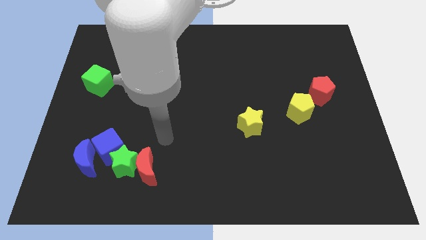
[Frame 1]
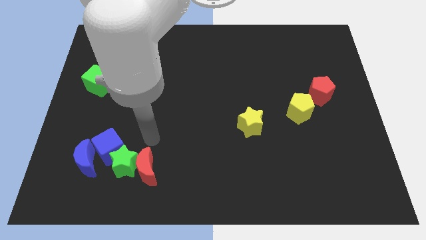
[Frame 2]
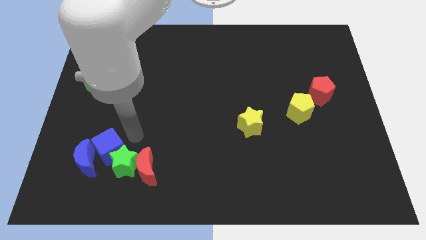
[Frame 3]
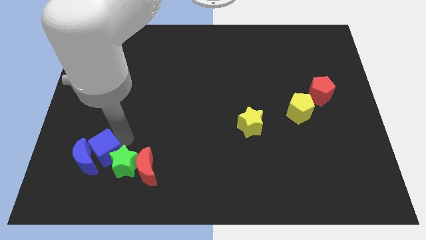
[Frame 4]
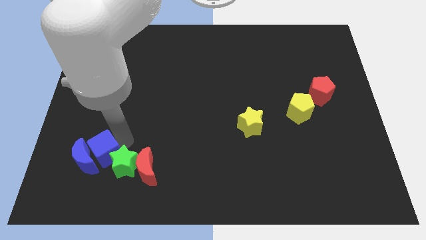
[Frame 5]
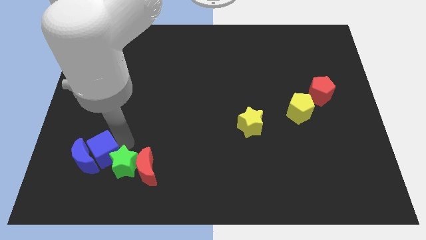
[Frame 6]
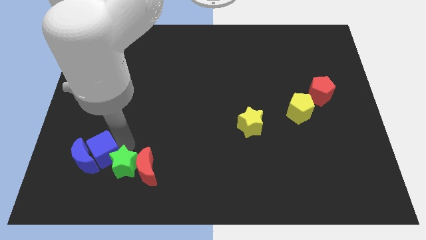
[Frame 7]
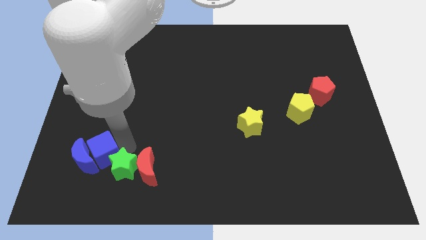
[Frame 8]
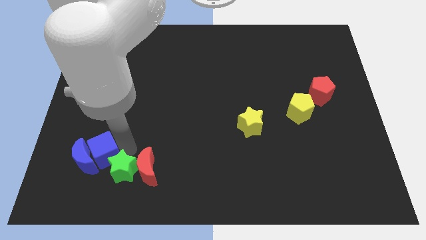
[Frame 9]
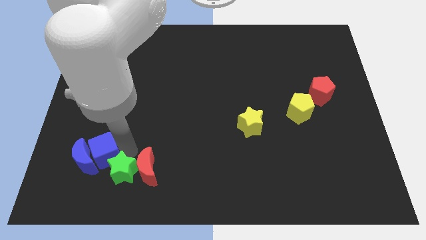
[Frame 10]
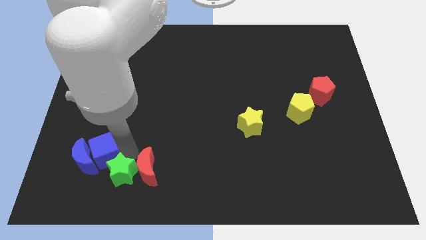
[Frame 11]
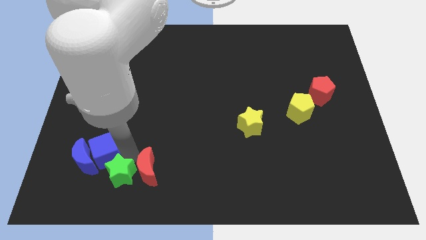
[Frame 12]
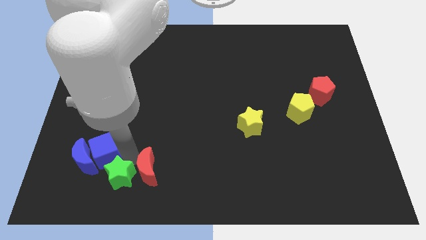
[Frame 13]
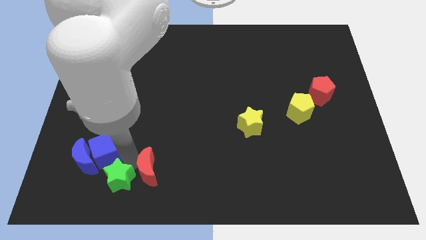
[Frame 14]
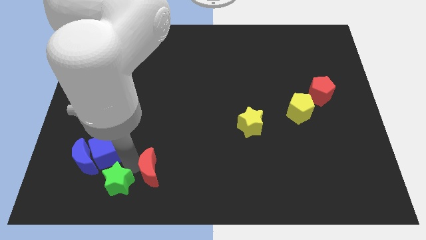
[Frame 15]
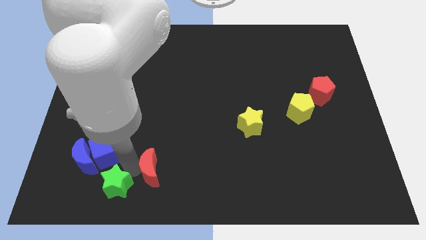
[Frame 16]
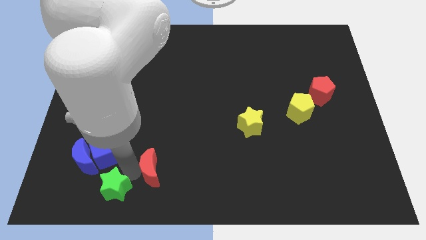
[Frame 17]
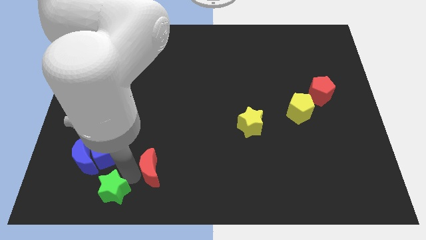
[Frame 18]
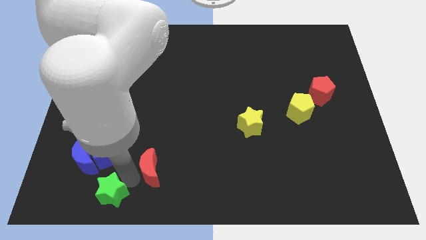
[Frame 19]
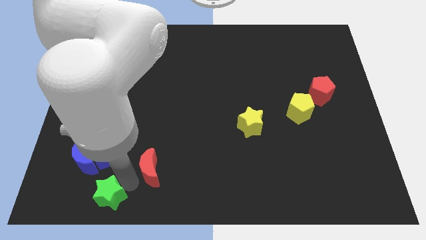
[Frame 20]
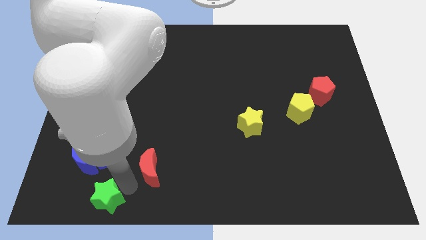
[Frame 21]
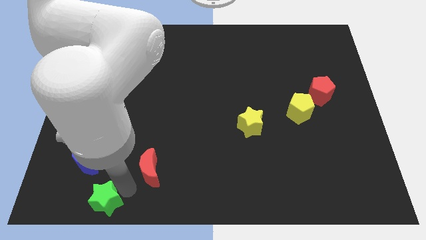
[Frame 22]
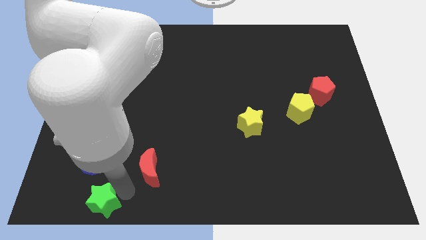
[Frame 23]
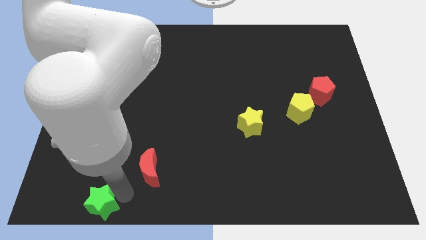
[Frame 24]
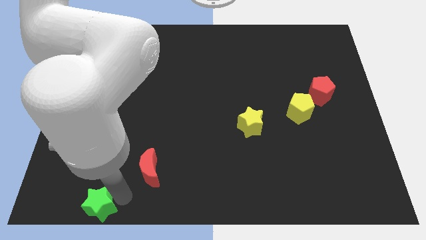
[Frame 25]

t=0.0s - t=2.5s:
separate the green star from the group

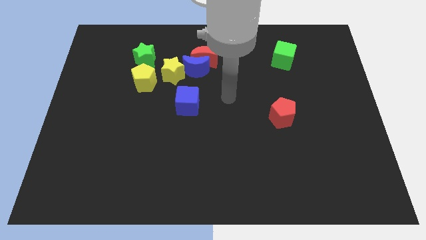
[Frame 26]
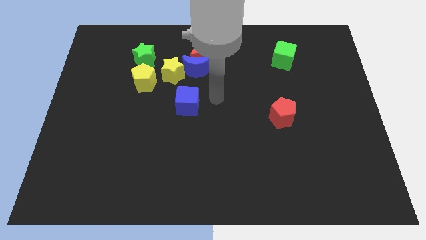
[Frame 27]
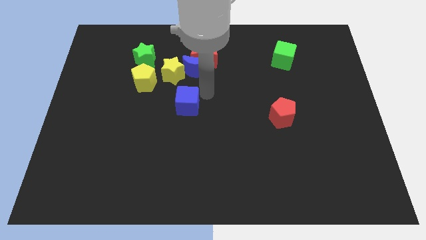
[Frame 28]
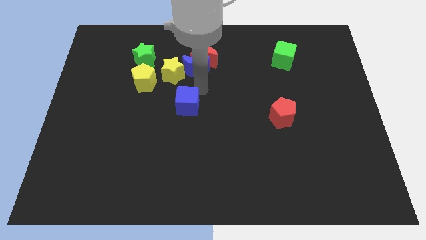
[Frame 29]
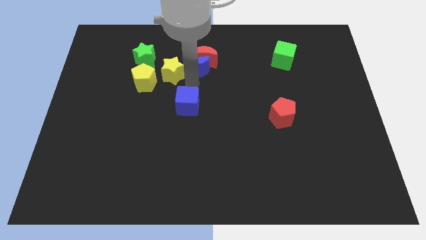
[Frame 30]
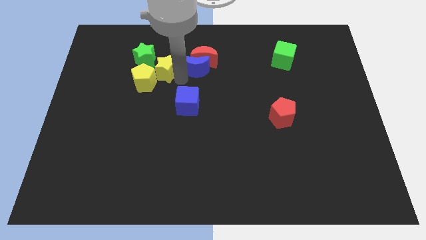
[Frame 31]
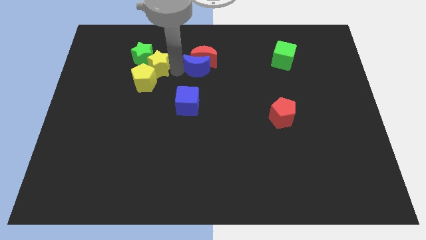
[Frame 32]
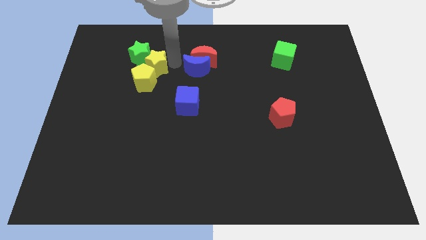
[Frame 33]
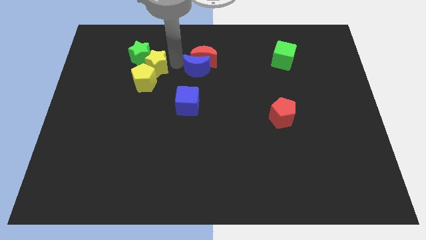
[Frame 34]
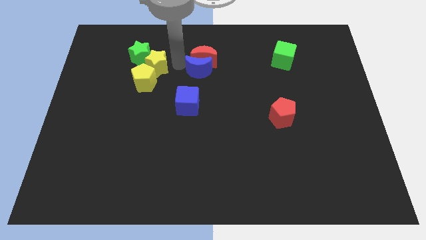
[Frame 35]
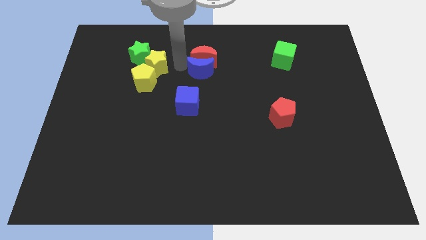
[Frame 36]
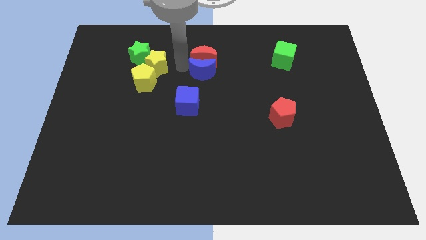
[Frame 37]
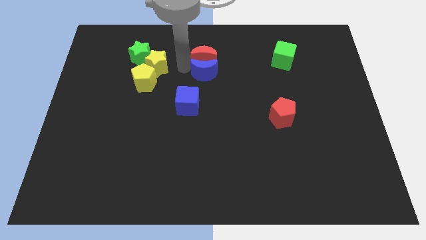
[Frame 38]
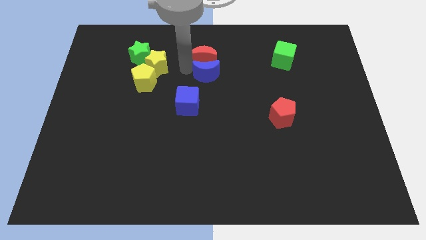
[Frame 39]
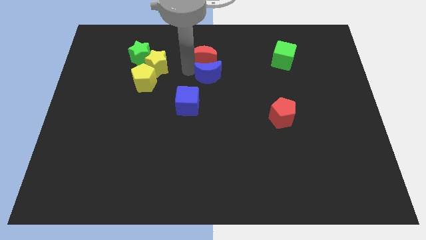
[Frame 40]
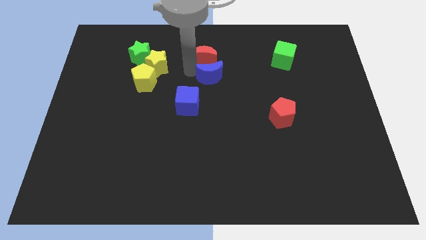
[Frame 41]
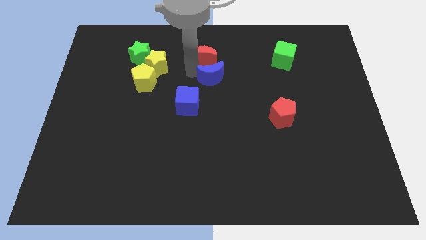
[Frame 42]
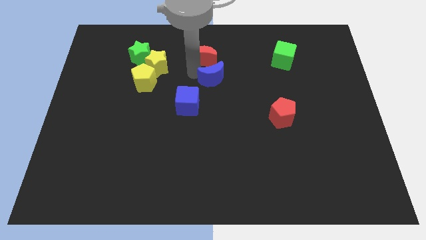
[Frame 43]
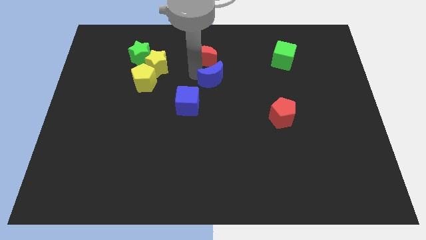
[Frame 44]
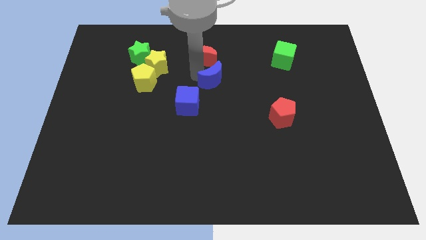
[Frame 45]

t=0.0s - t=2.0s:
move the blue moon away from the red moon and yellow star

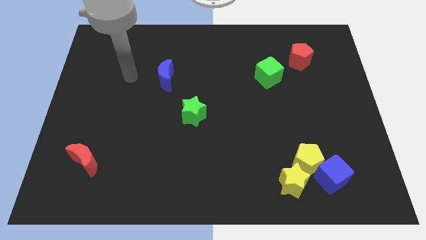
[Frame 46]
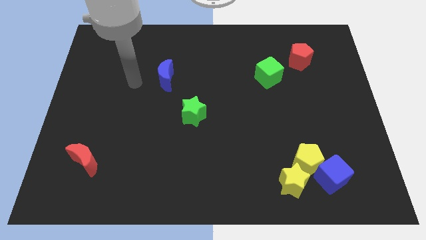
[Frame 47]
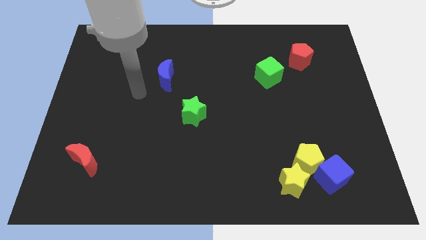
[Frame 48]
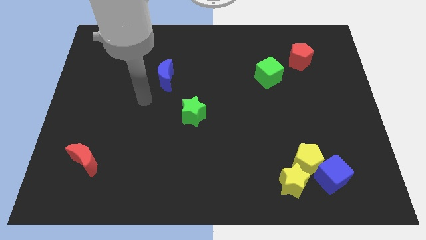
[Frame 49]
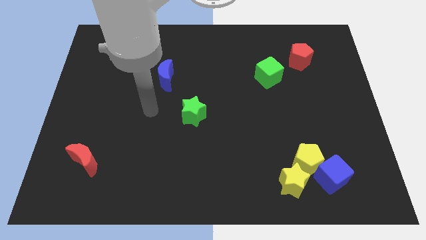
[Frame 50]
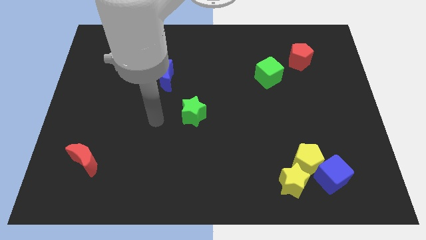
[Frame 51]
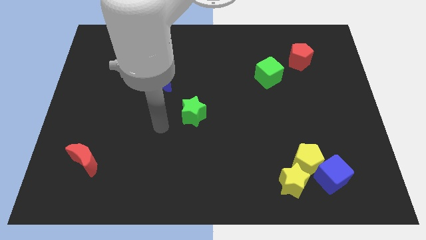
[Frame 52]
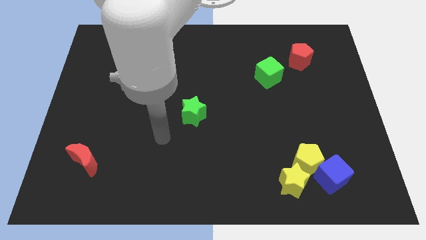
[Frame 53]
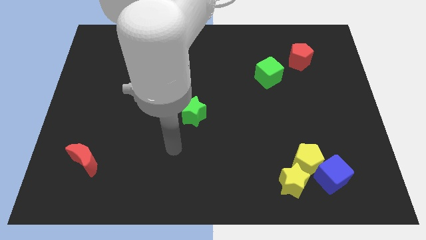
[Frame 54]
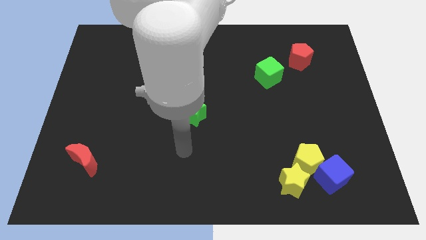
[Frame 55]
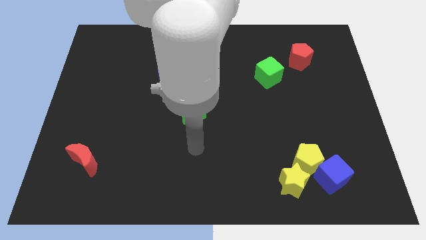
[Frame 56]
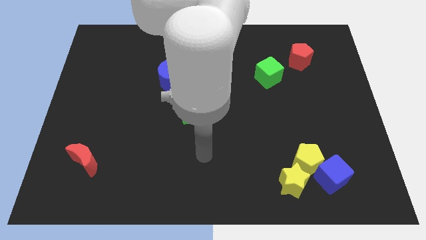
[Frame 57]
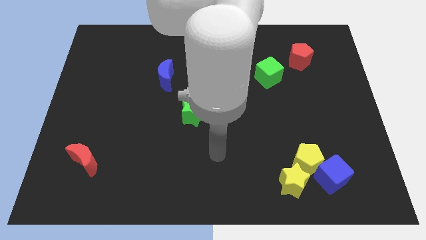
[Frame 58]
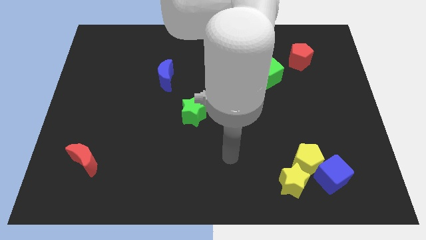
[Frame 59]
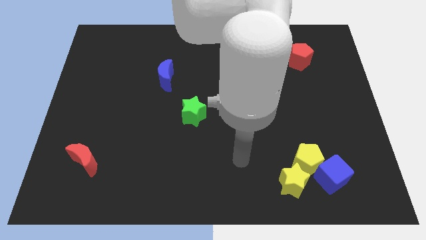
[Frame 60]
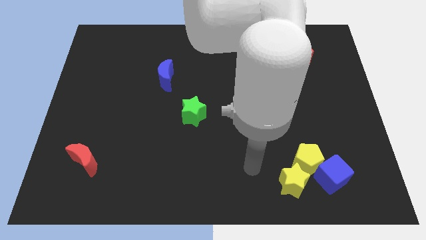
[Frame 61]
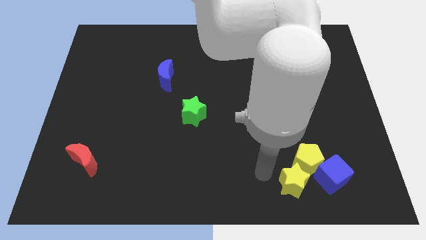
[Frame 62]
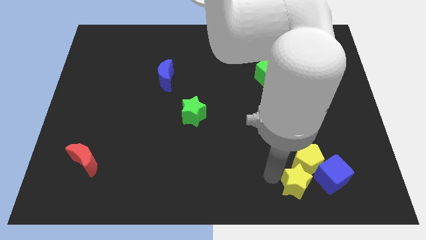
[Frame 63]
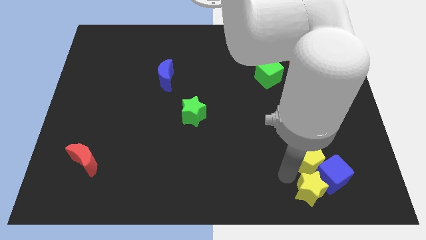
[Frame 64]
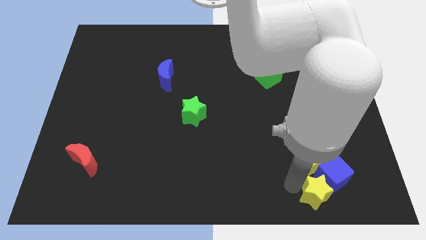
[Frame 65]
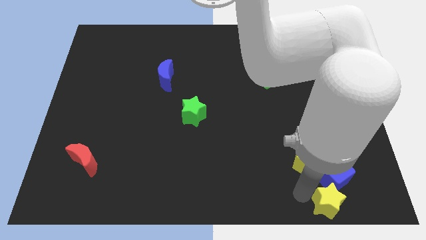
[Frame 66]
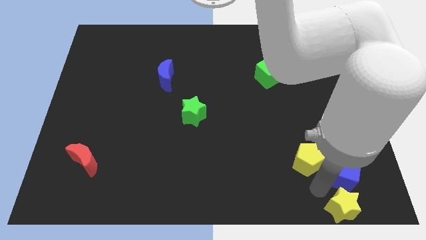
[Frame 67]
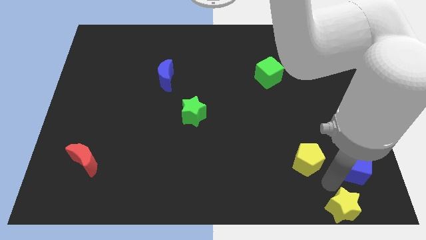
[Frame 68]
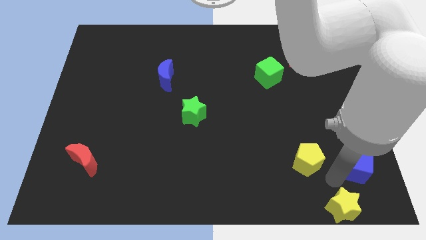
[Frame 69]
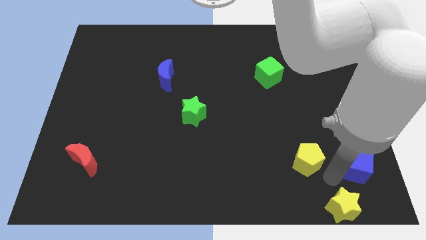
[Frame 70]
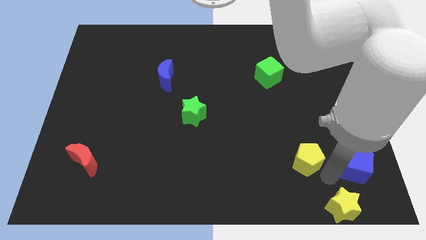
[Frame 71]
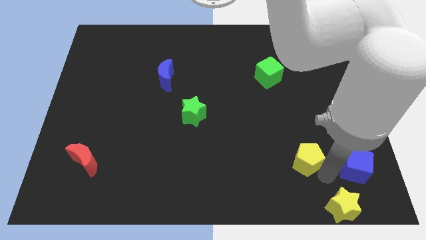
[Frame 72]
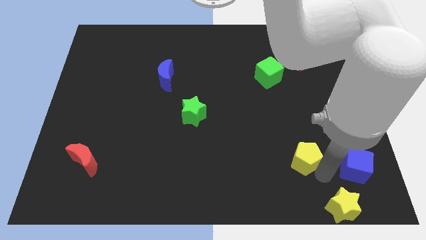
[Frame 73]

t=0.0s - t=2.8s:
separate the yellow pentagon from the blue cube and yellow star

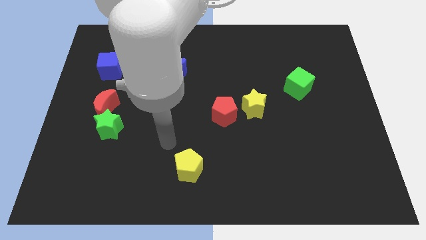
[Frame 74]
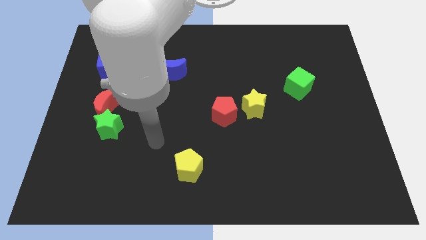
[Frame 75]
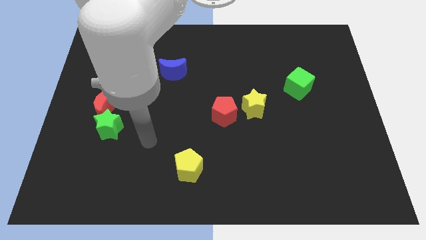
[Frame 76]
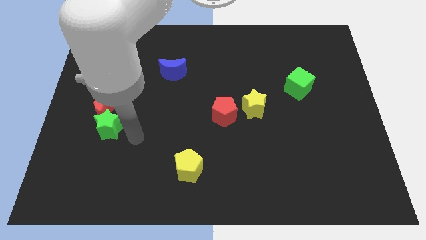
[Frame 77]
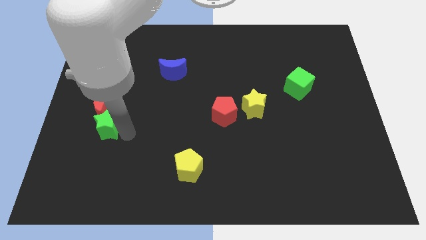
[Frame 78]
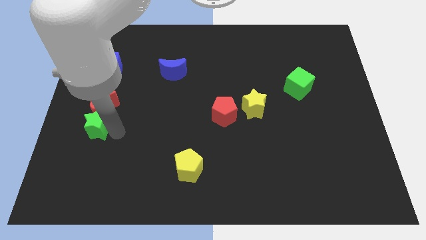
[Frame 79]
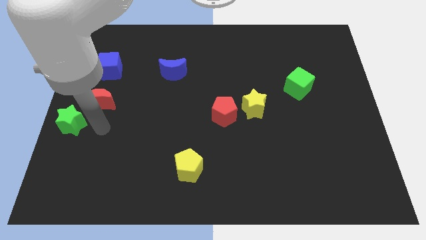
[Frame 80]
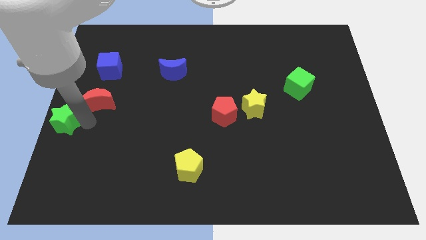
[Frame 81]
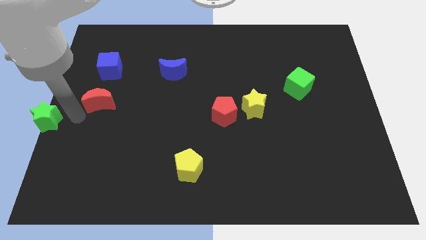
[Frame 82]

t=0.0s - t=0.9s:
pull the red moon apart from the green star

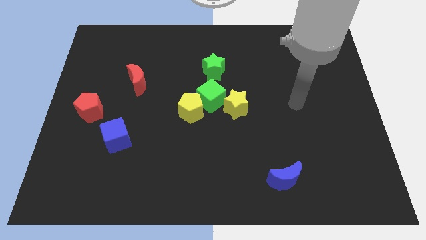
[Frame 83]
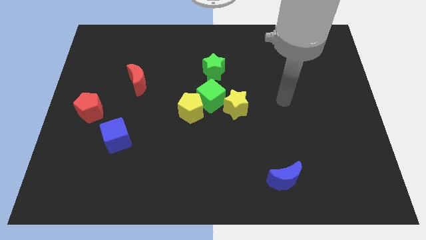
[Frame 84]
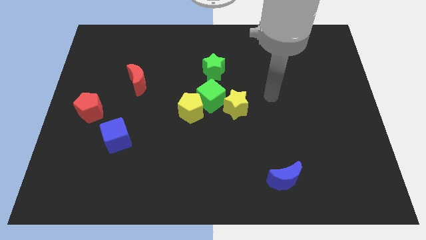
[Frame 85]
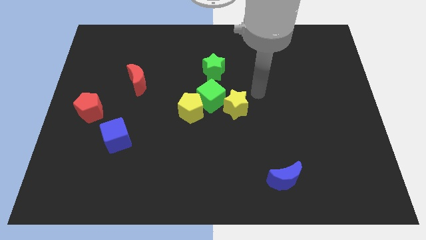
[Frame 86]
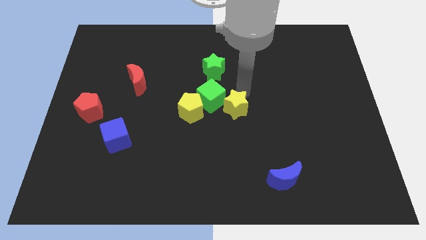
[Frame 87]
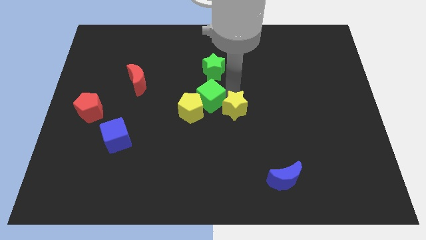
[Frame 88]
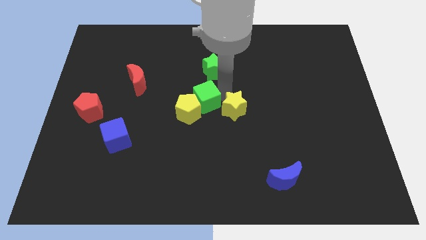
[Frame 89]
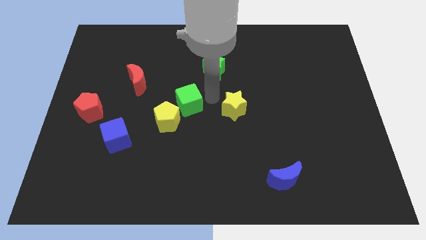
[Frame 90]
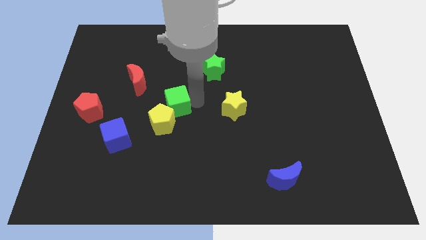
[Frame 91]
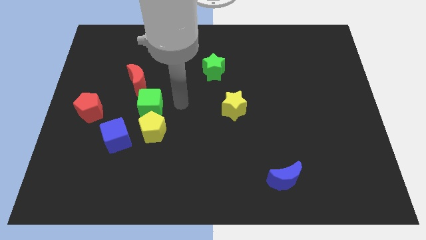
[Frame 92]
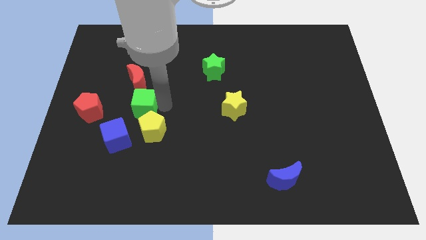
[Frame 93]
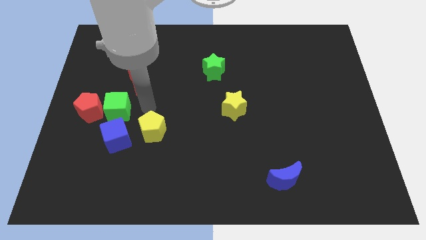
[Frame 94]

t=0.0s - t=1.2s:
separate the yellow pentagon from the green cube

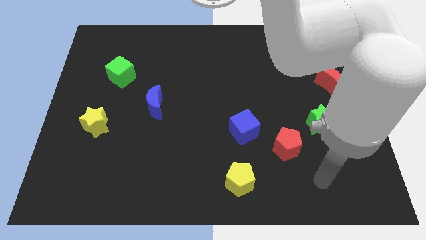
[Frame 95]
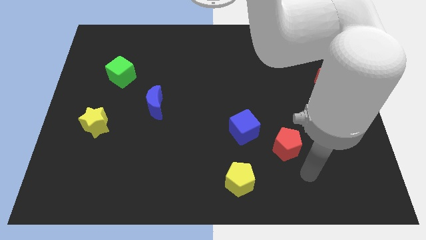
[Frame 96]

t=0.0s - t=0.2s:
pull the green star apart from the red pentagon
